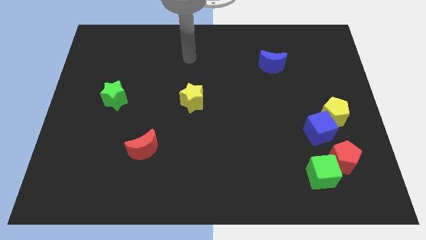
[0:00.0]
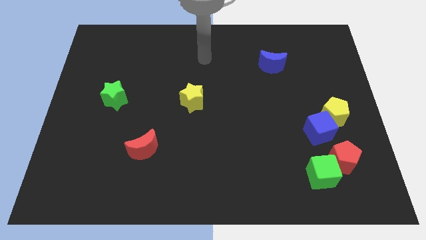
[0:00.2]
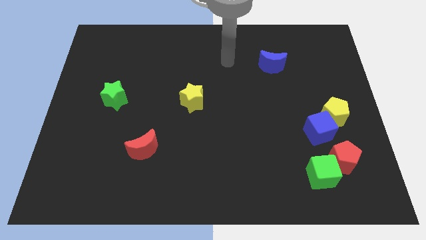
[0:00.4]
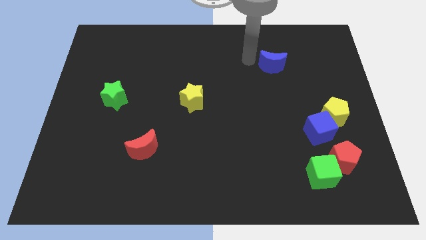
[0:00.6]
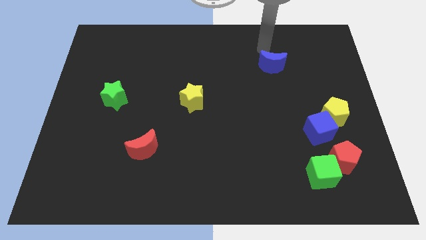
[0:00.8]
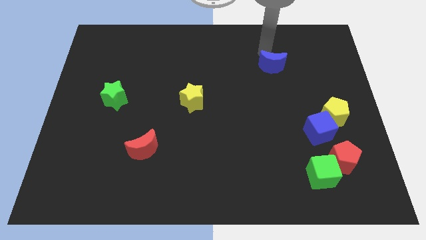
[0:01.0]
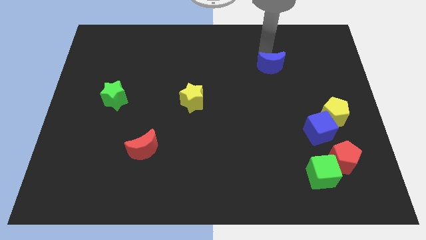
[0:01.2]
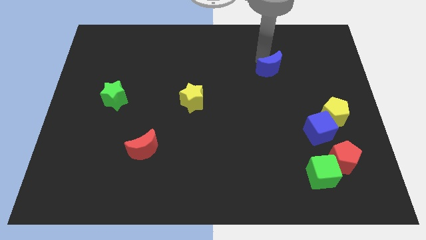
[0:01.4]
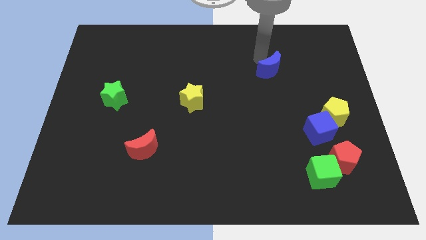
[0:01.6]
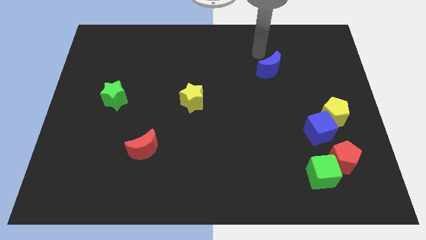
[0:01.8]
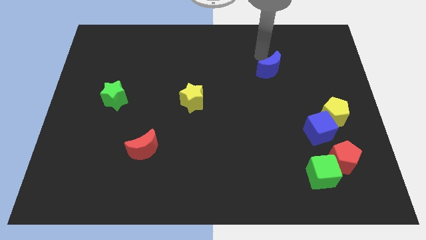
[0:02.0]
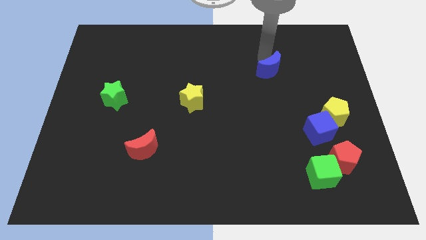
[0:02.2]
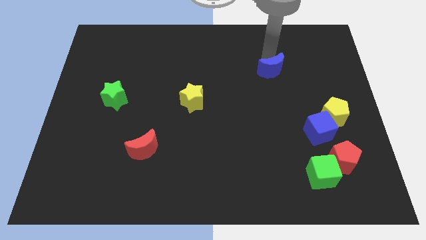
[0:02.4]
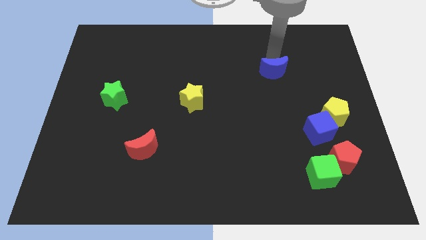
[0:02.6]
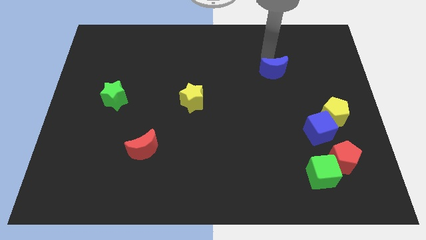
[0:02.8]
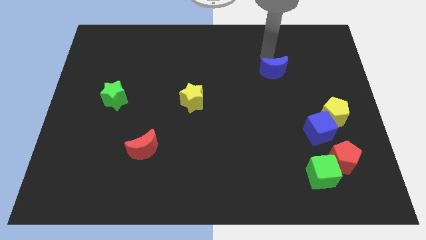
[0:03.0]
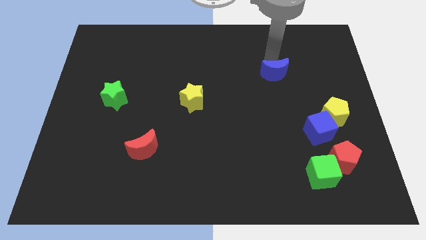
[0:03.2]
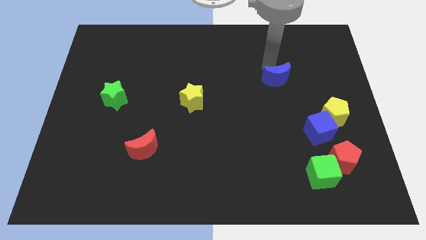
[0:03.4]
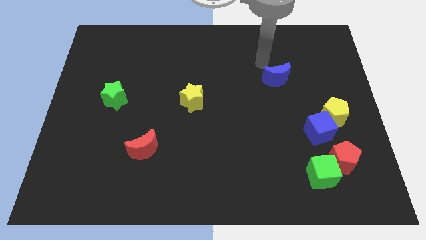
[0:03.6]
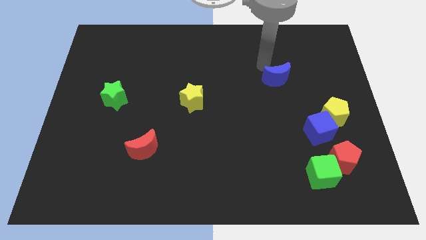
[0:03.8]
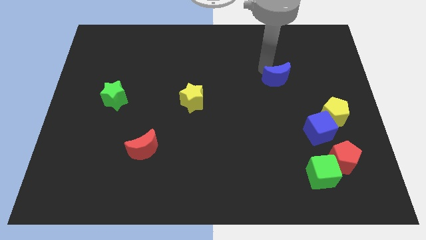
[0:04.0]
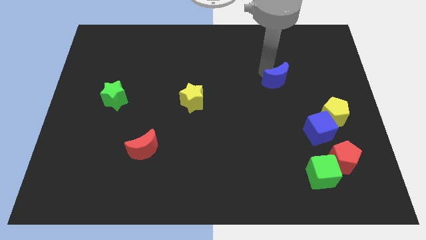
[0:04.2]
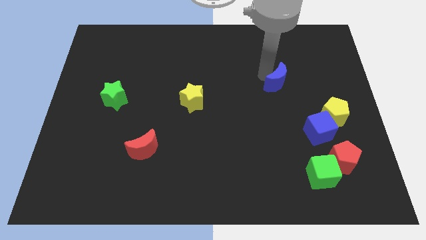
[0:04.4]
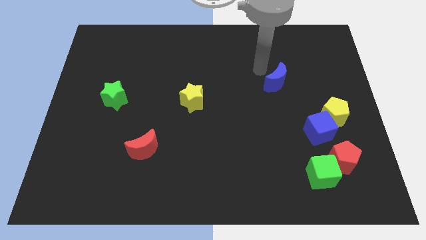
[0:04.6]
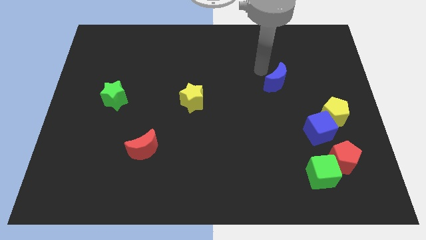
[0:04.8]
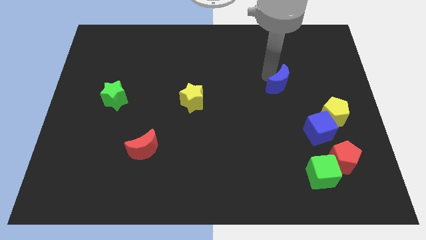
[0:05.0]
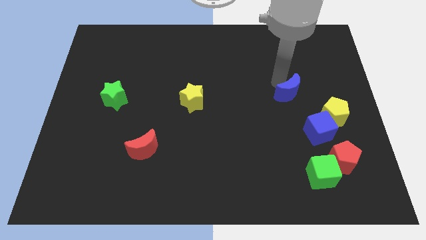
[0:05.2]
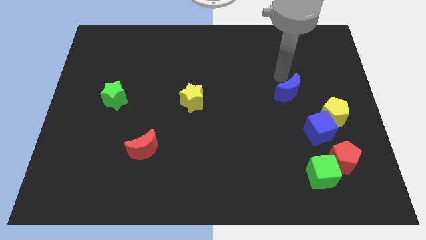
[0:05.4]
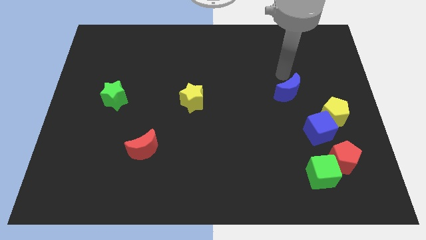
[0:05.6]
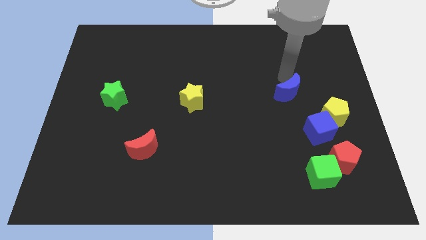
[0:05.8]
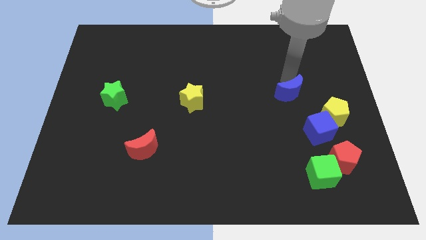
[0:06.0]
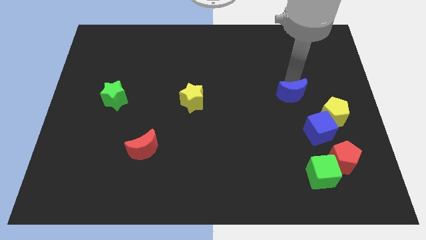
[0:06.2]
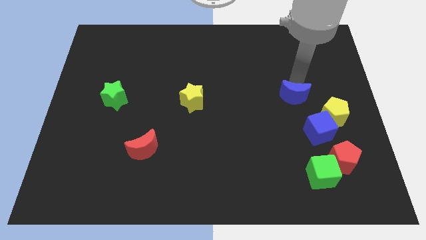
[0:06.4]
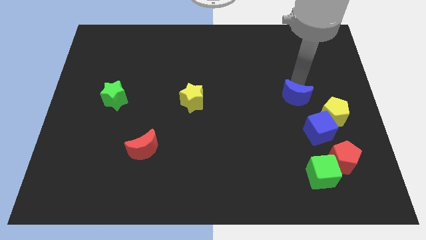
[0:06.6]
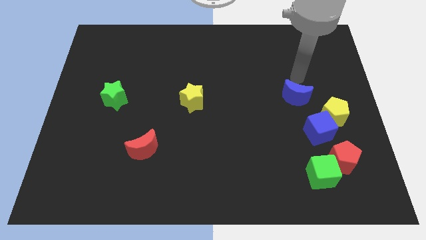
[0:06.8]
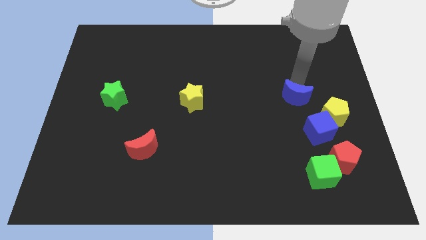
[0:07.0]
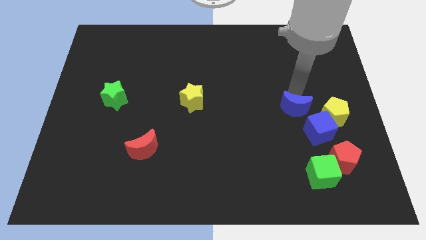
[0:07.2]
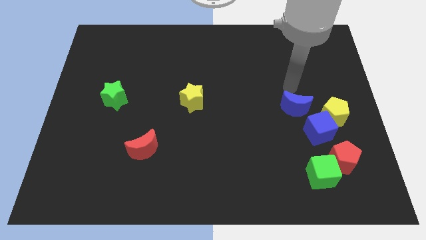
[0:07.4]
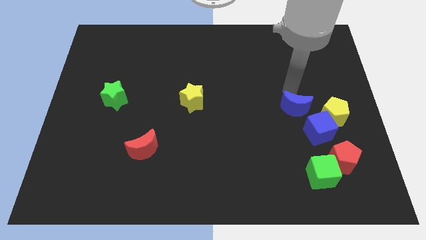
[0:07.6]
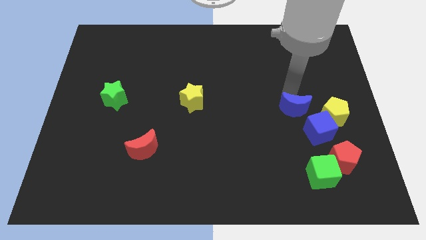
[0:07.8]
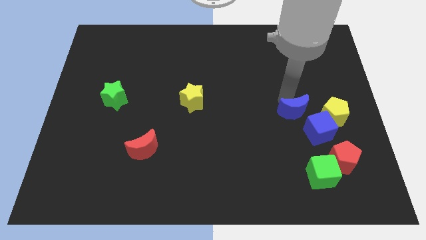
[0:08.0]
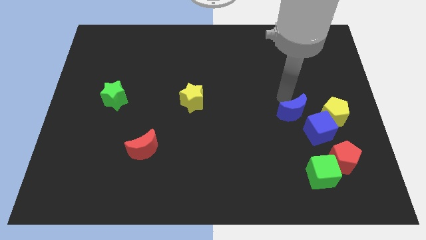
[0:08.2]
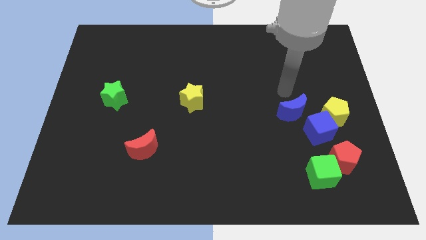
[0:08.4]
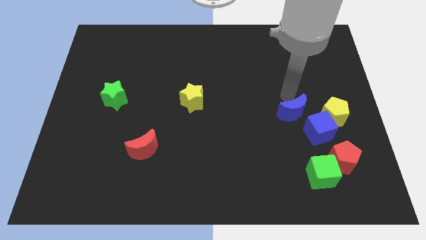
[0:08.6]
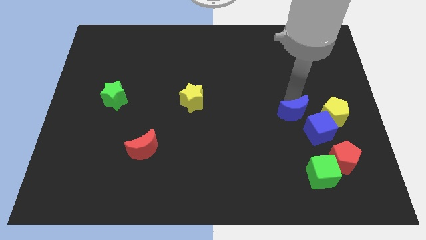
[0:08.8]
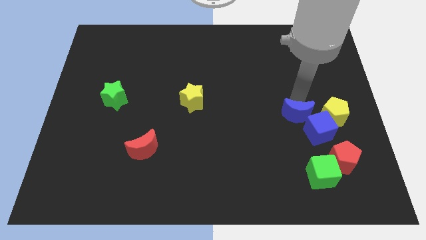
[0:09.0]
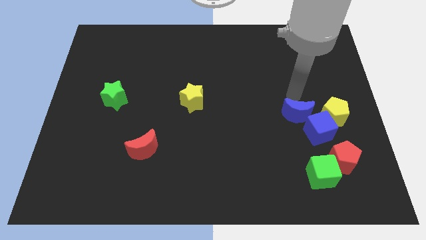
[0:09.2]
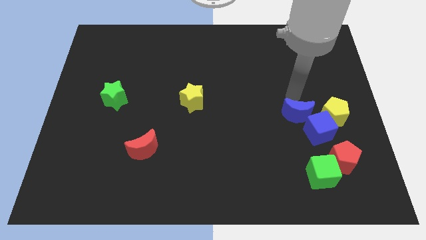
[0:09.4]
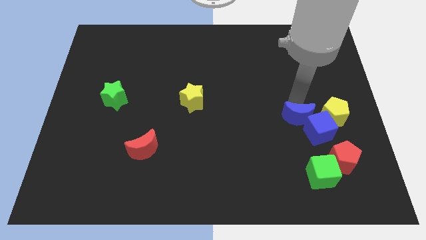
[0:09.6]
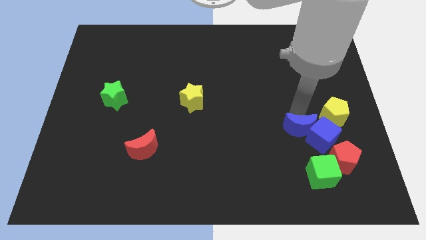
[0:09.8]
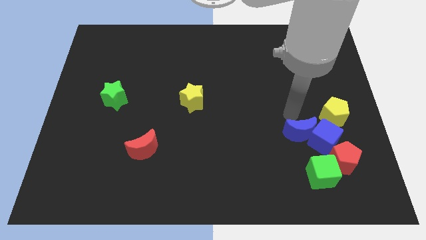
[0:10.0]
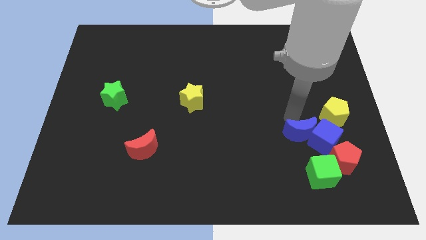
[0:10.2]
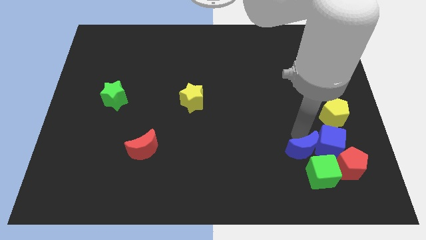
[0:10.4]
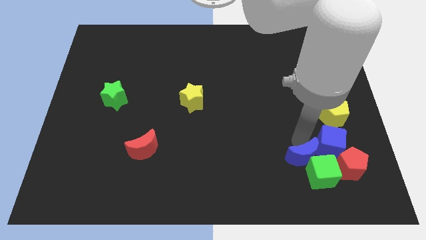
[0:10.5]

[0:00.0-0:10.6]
slide the blue moon next to the green cube

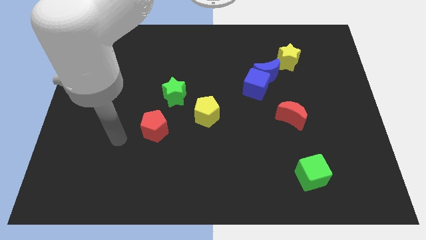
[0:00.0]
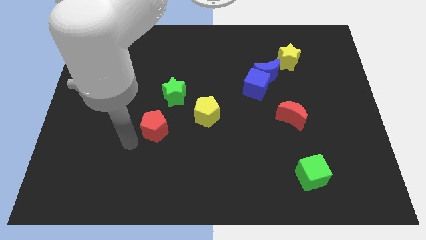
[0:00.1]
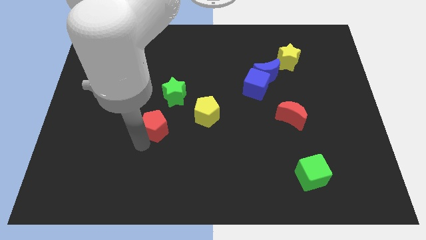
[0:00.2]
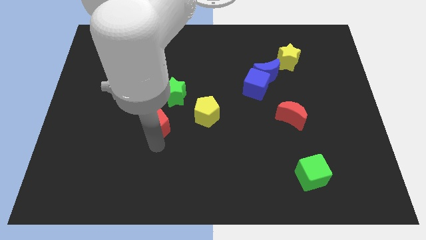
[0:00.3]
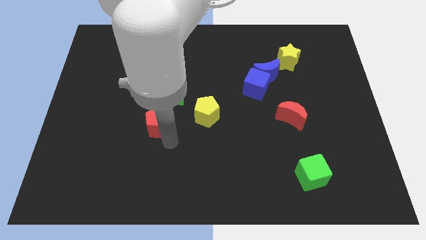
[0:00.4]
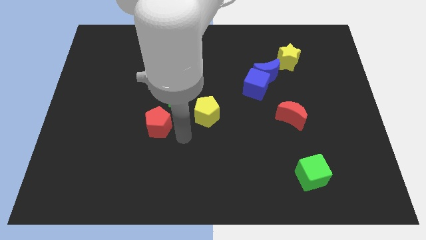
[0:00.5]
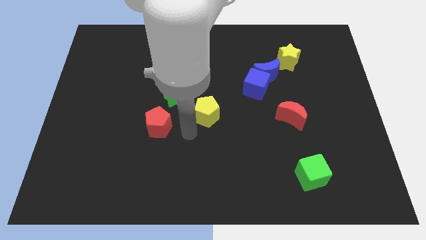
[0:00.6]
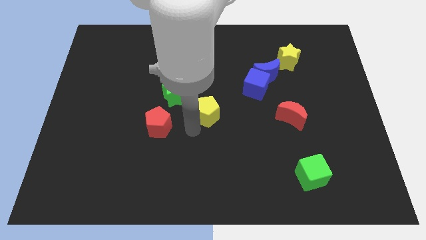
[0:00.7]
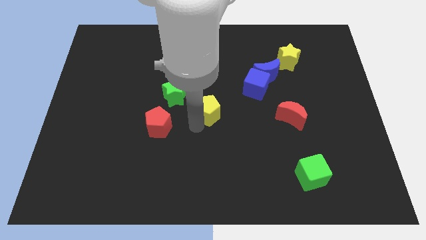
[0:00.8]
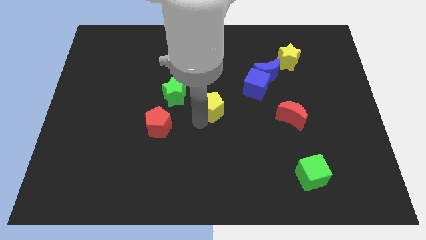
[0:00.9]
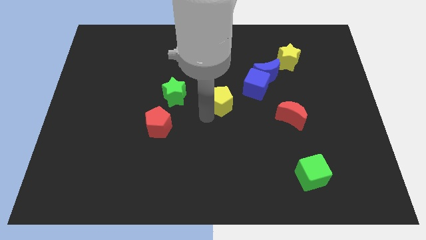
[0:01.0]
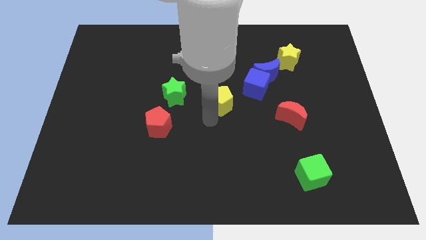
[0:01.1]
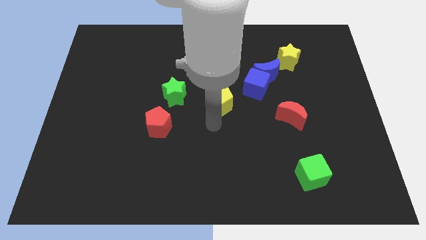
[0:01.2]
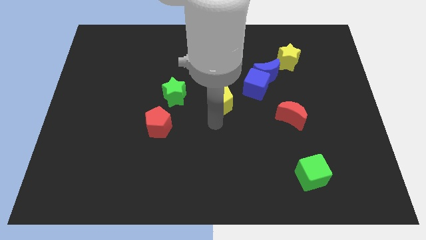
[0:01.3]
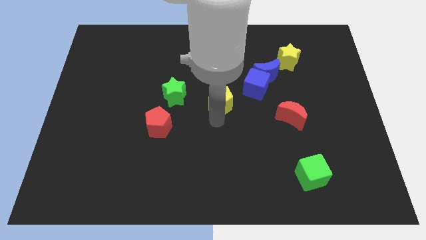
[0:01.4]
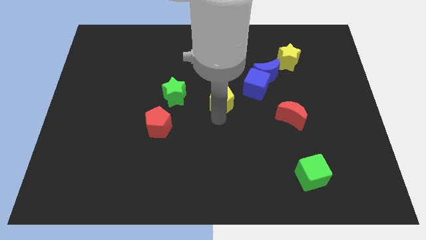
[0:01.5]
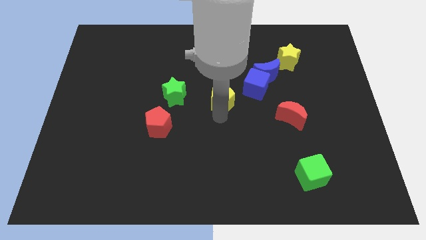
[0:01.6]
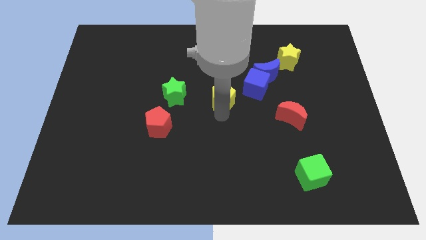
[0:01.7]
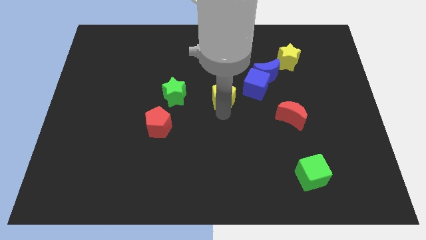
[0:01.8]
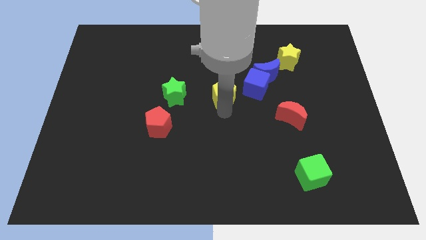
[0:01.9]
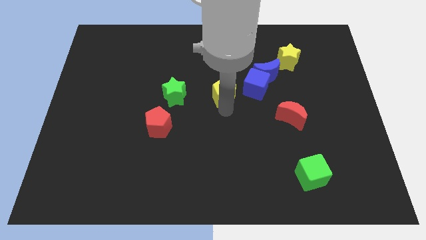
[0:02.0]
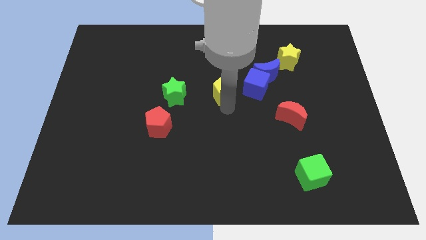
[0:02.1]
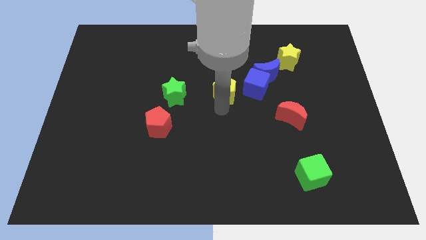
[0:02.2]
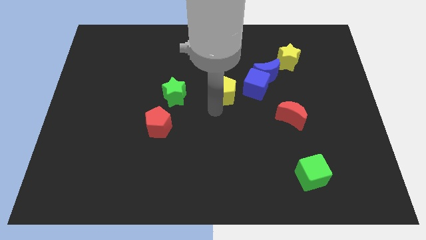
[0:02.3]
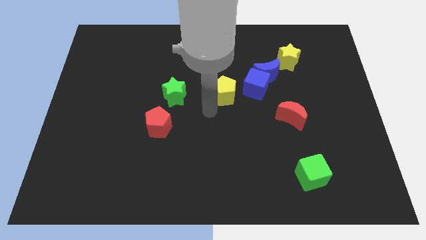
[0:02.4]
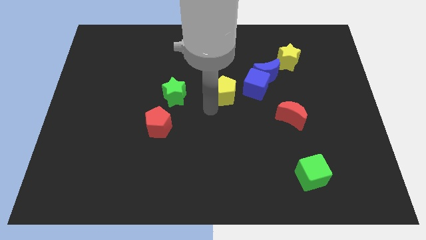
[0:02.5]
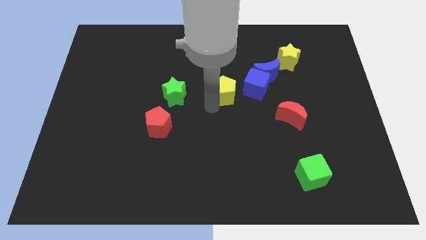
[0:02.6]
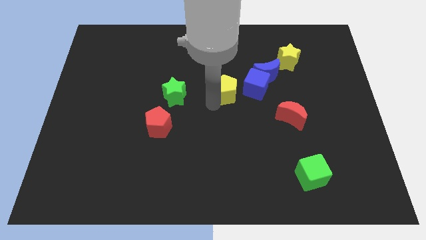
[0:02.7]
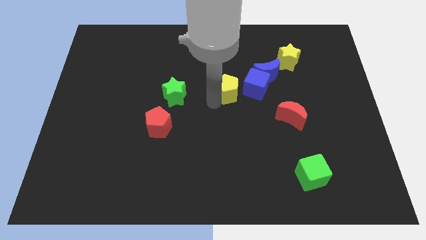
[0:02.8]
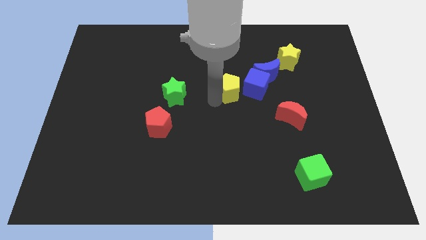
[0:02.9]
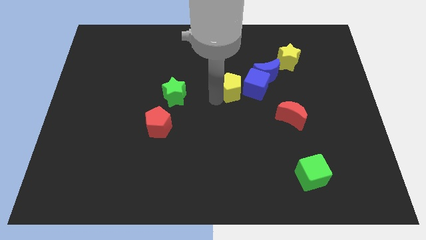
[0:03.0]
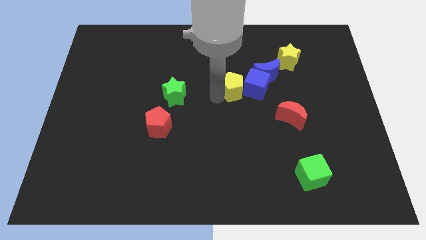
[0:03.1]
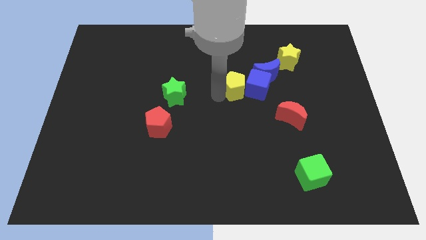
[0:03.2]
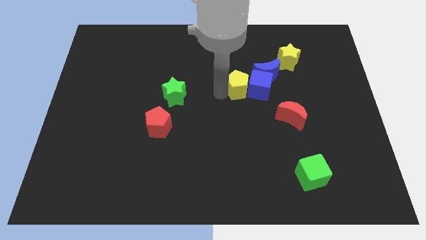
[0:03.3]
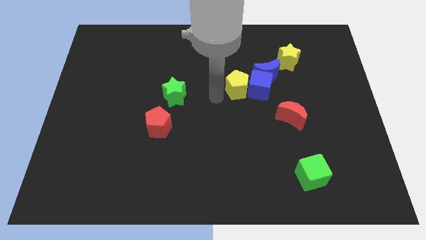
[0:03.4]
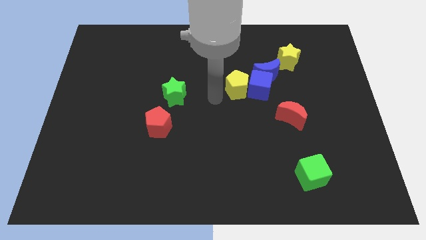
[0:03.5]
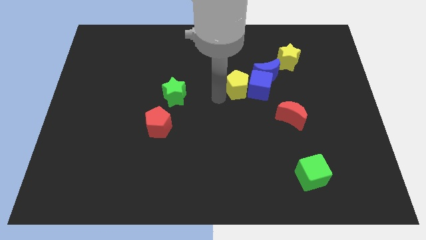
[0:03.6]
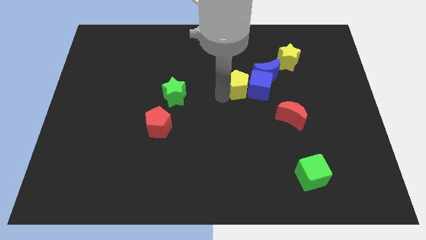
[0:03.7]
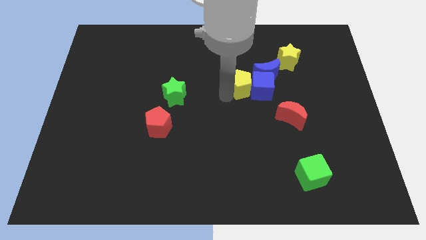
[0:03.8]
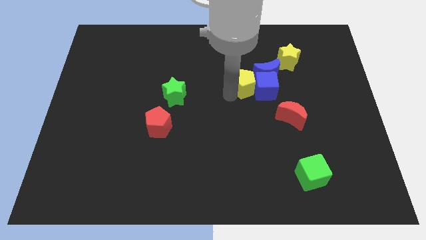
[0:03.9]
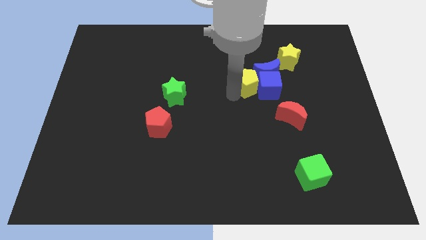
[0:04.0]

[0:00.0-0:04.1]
push the yellow pentagon close to the blue moon
